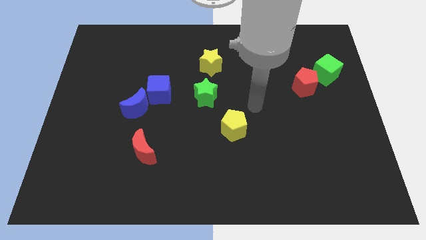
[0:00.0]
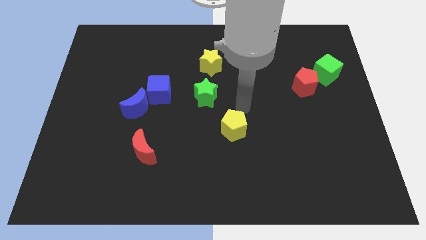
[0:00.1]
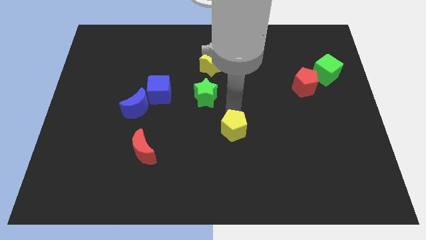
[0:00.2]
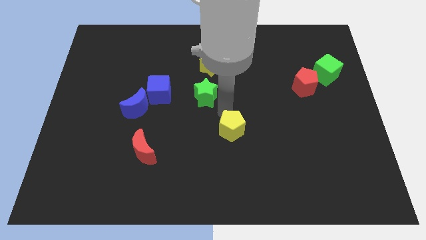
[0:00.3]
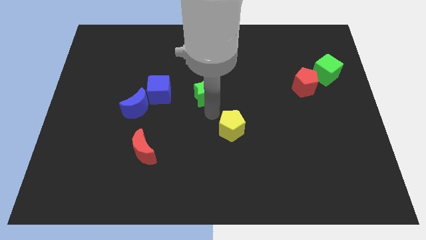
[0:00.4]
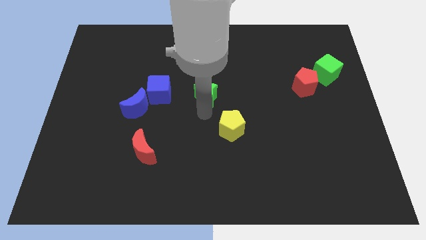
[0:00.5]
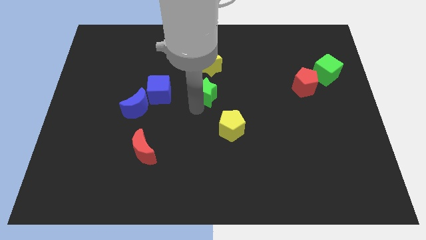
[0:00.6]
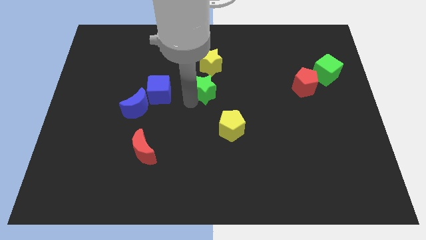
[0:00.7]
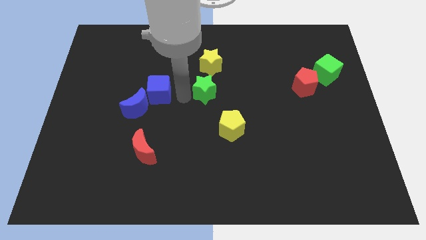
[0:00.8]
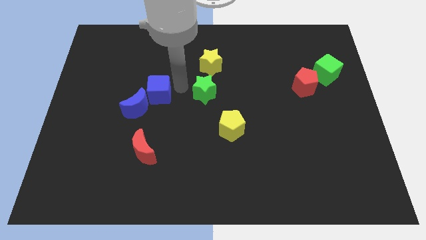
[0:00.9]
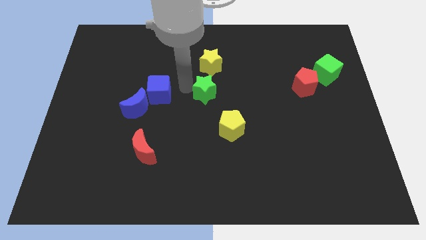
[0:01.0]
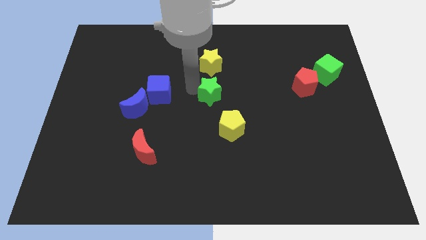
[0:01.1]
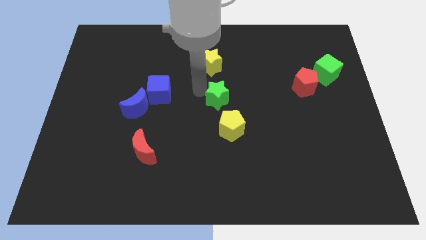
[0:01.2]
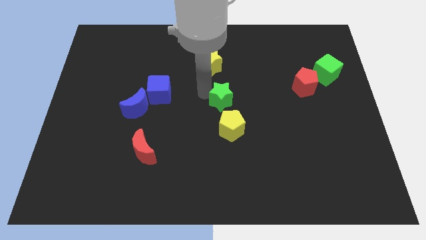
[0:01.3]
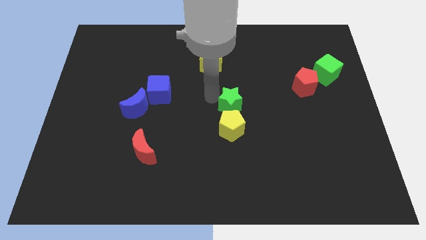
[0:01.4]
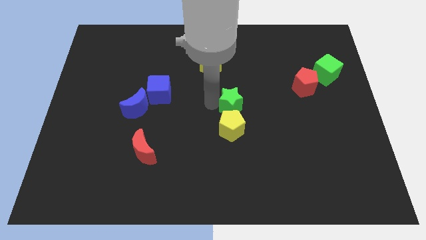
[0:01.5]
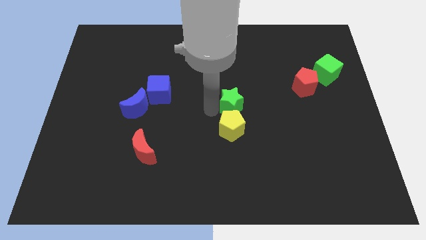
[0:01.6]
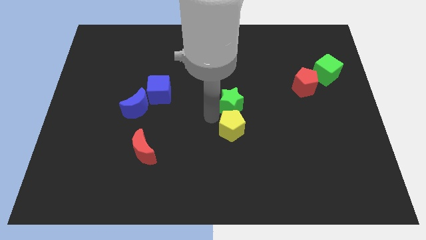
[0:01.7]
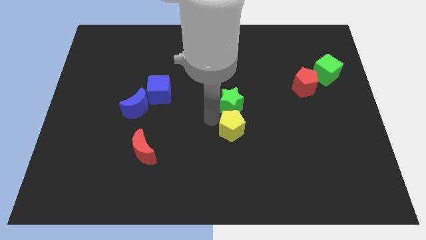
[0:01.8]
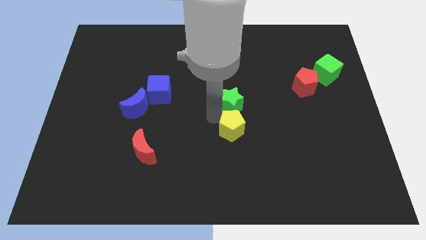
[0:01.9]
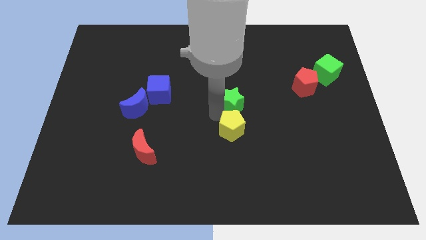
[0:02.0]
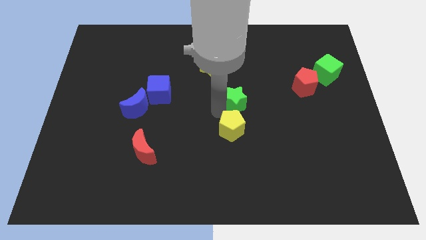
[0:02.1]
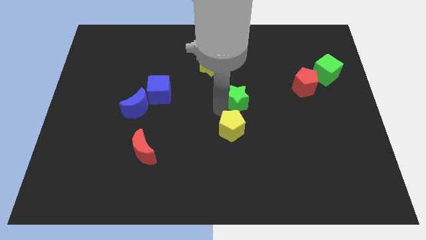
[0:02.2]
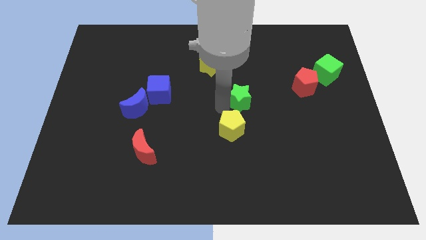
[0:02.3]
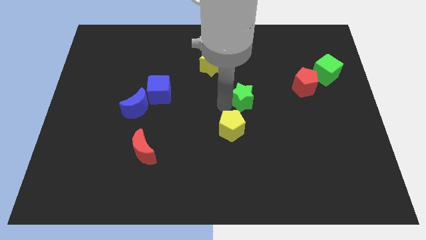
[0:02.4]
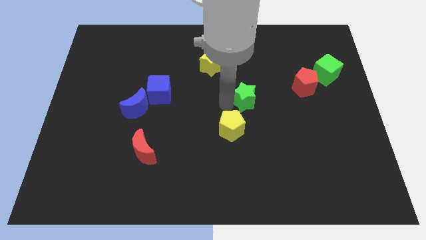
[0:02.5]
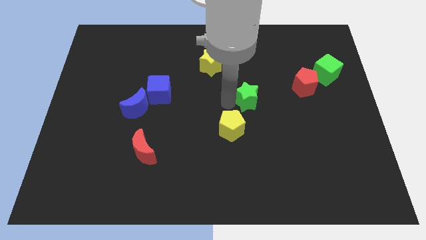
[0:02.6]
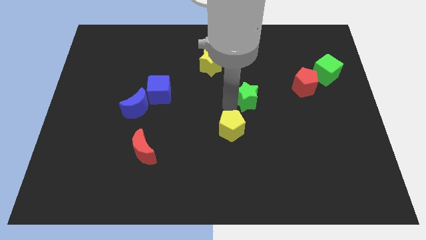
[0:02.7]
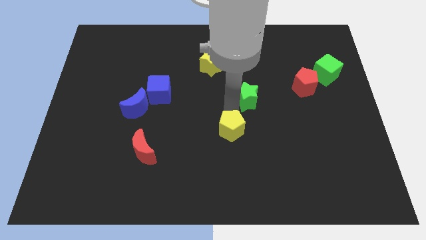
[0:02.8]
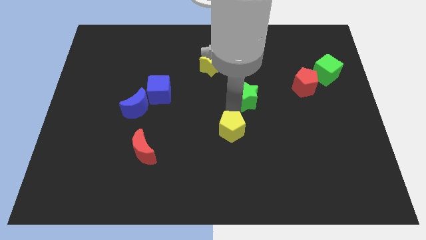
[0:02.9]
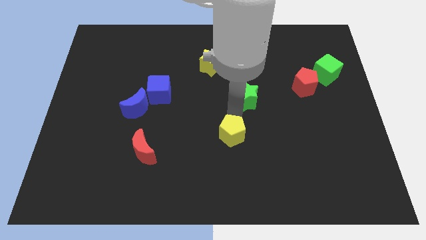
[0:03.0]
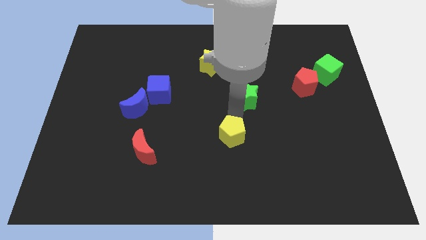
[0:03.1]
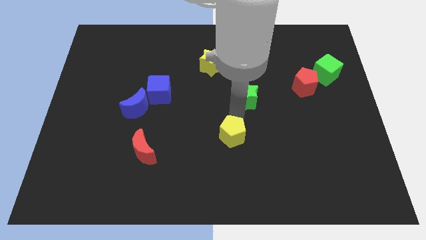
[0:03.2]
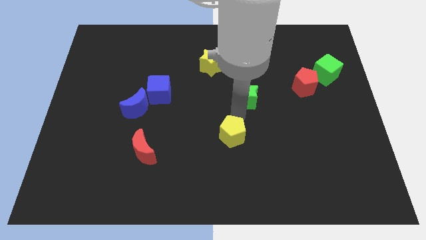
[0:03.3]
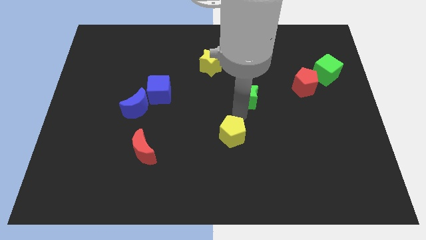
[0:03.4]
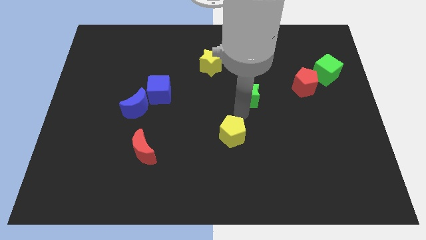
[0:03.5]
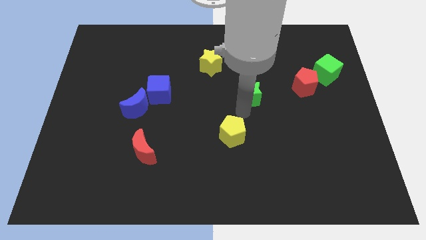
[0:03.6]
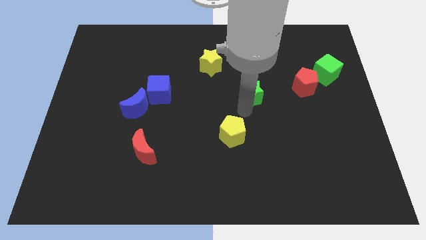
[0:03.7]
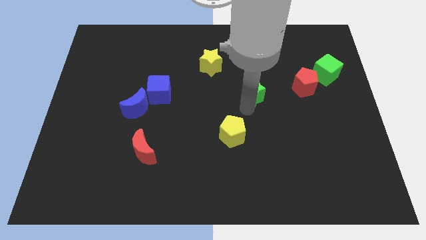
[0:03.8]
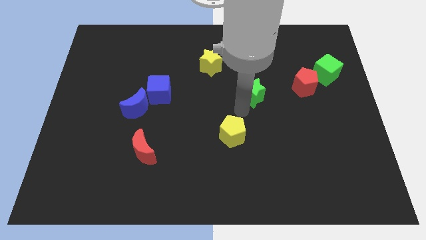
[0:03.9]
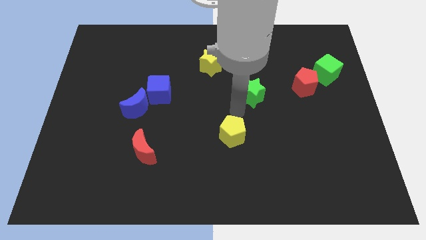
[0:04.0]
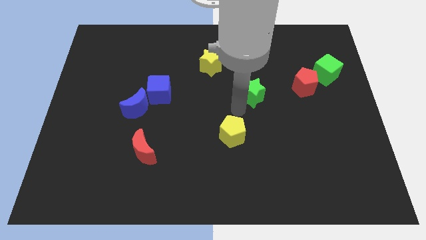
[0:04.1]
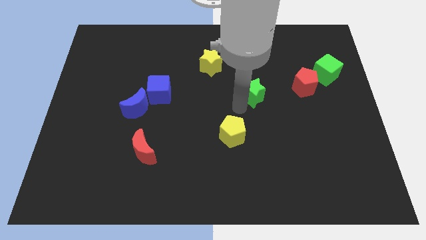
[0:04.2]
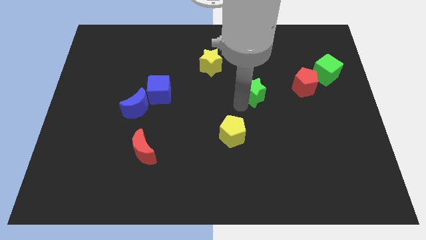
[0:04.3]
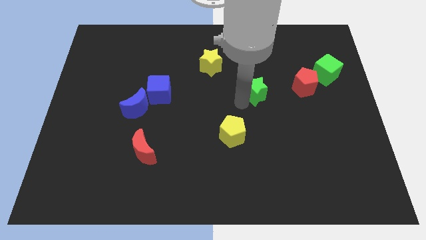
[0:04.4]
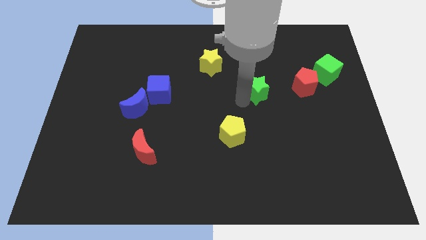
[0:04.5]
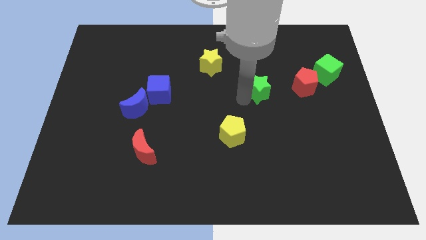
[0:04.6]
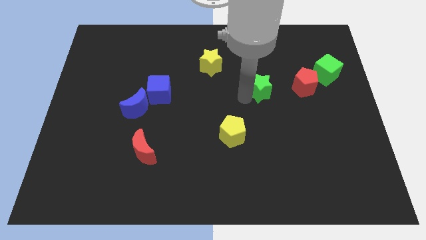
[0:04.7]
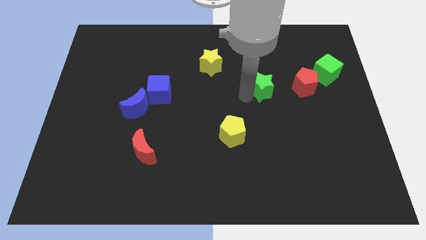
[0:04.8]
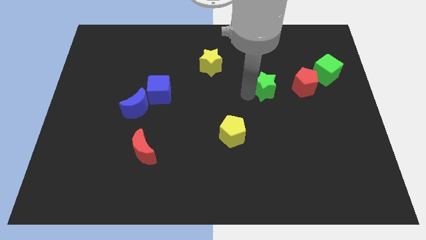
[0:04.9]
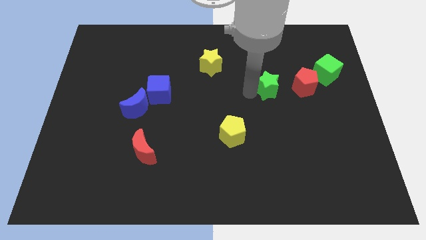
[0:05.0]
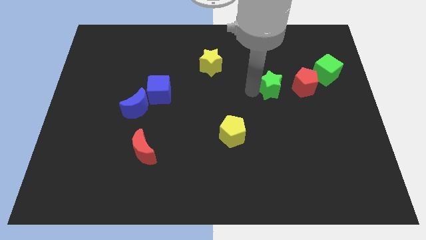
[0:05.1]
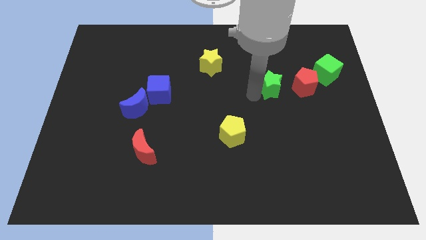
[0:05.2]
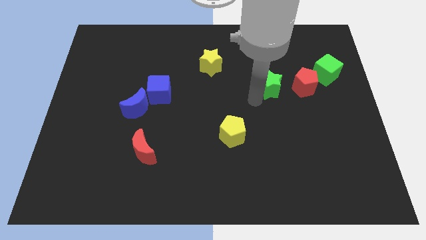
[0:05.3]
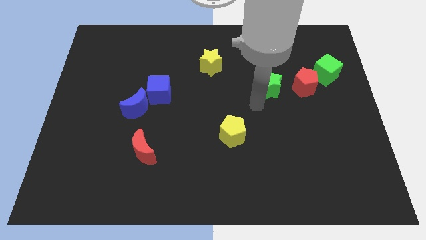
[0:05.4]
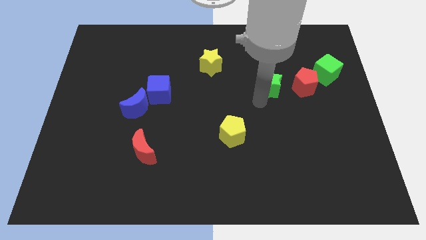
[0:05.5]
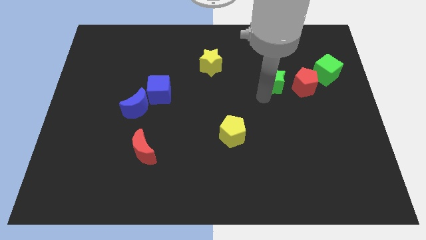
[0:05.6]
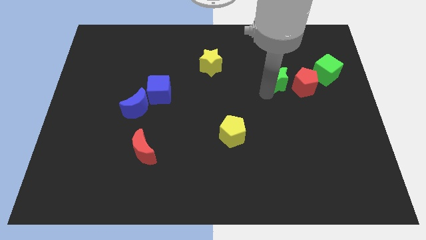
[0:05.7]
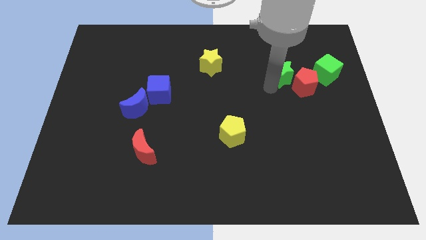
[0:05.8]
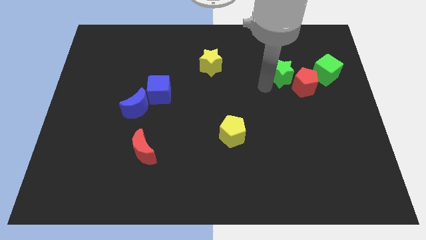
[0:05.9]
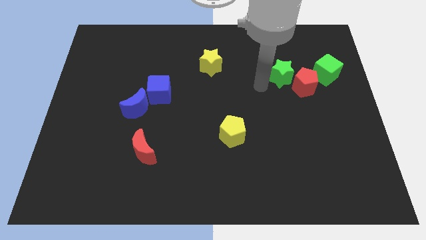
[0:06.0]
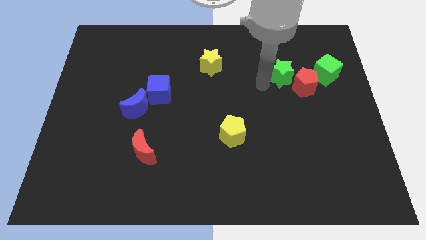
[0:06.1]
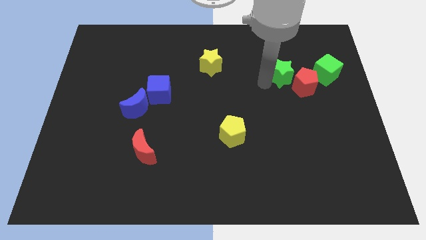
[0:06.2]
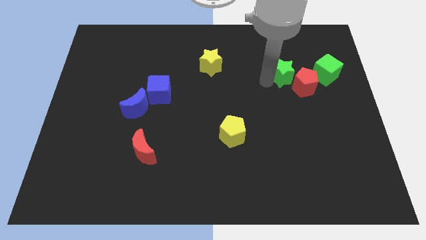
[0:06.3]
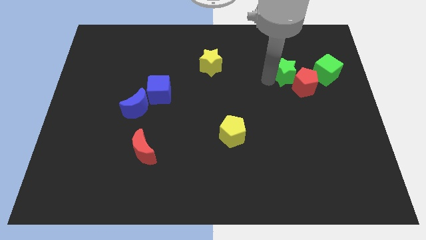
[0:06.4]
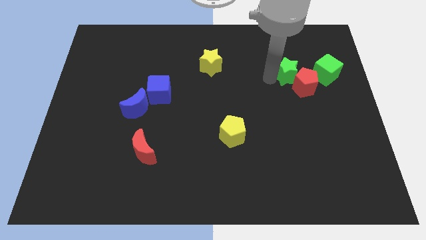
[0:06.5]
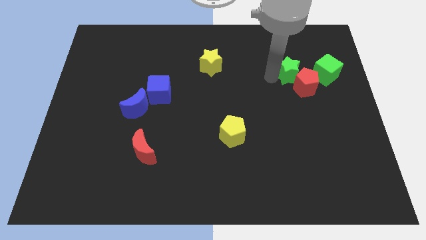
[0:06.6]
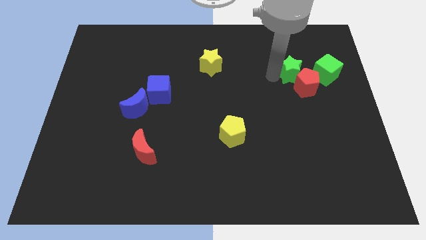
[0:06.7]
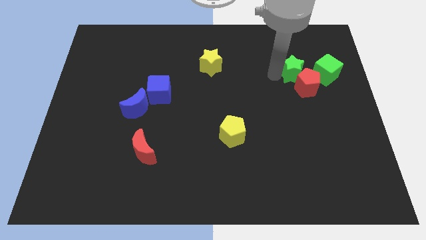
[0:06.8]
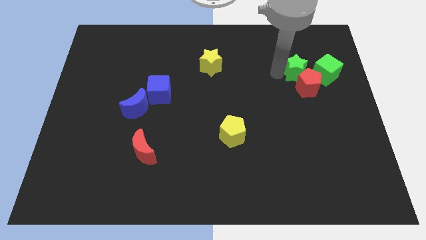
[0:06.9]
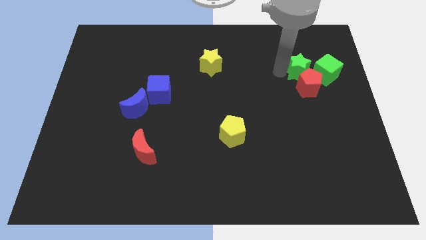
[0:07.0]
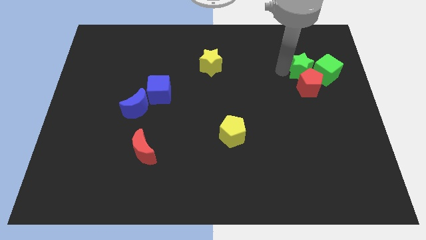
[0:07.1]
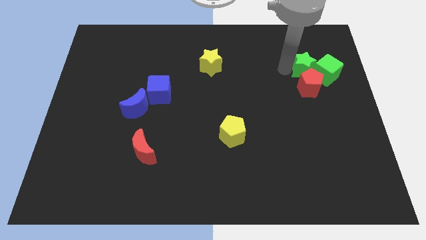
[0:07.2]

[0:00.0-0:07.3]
push the green star towards the green cube
